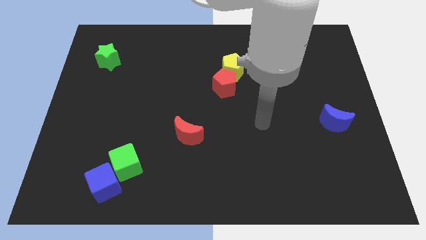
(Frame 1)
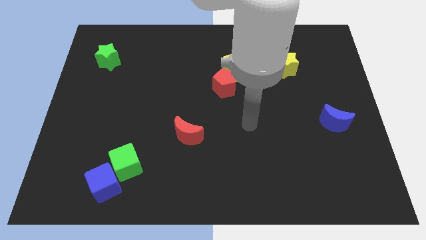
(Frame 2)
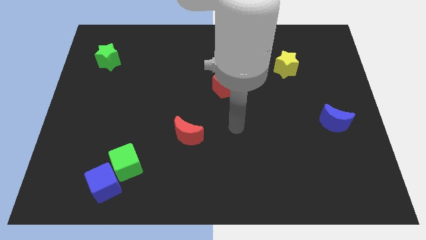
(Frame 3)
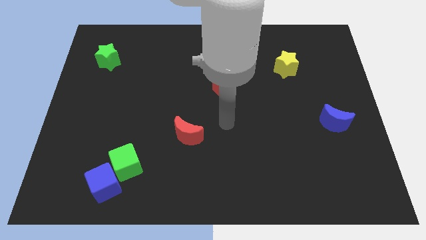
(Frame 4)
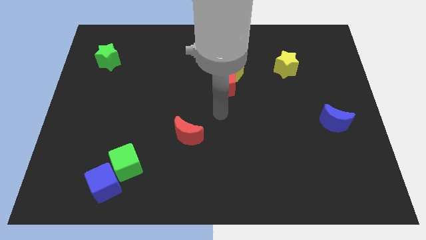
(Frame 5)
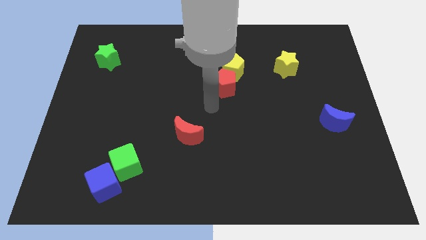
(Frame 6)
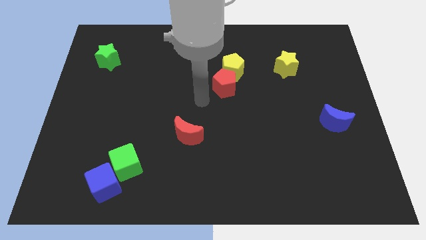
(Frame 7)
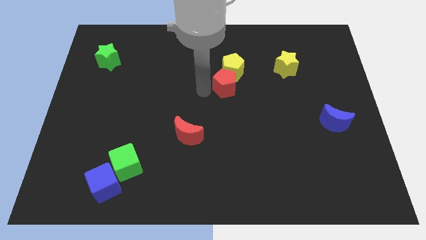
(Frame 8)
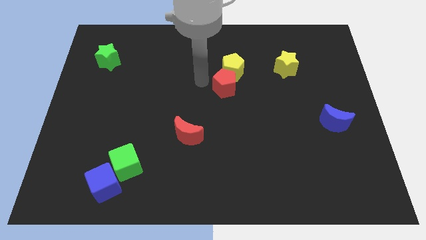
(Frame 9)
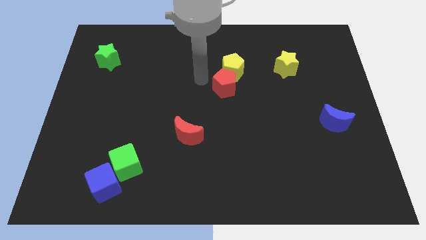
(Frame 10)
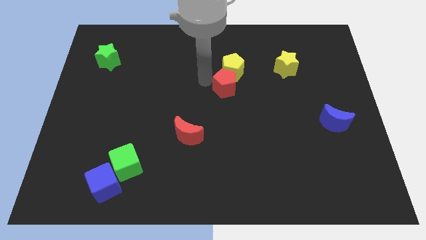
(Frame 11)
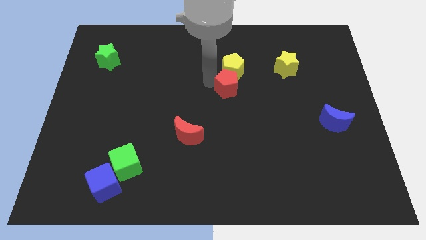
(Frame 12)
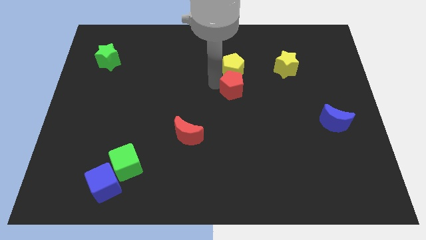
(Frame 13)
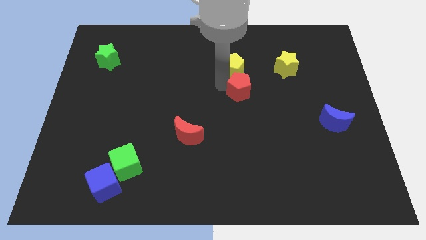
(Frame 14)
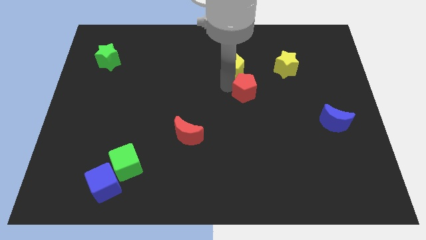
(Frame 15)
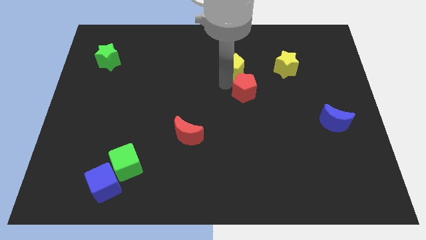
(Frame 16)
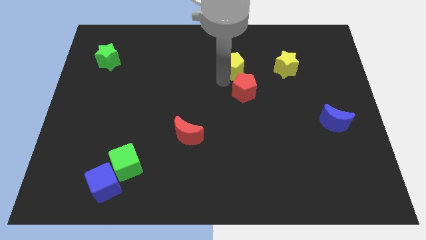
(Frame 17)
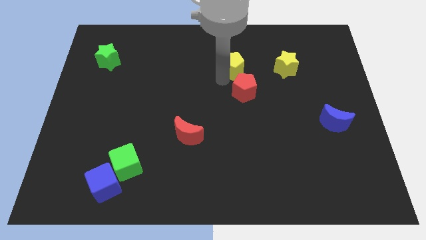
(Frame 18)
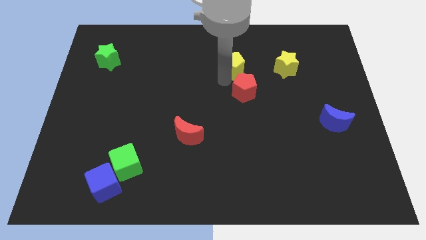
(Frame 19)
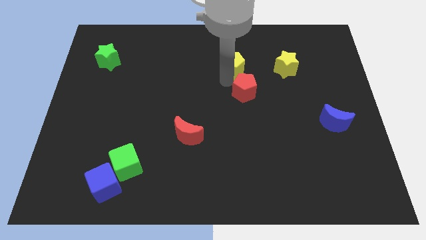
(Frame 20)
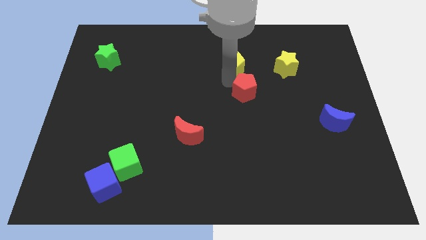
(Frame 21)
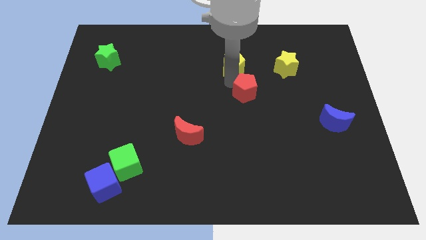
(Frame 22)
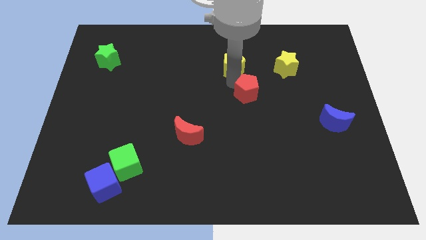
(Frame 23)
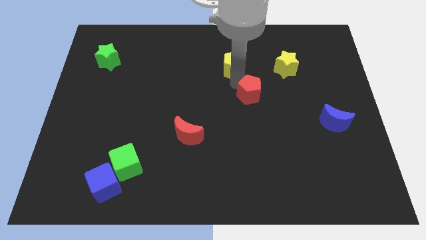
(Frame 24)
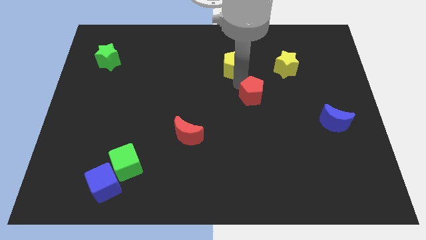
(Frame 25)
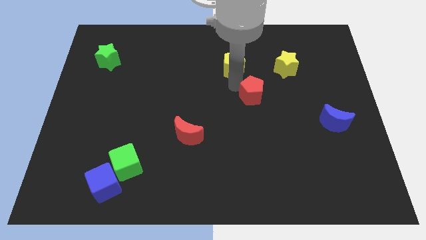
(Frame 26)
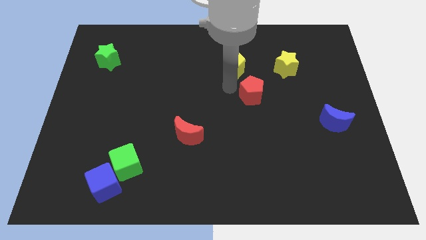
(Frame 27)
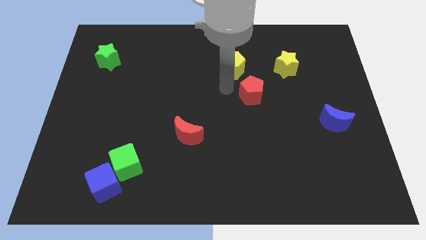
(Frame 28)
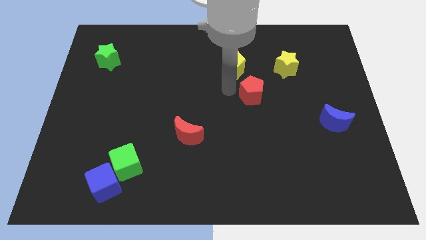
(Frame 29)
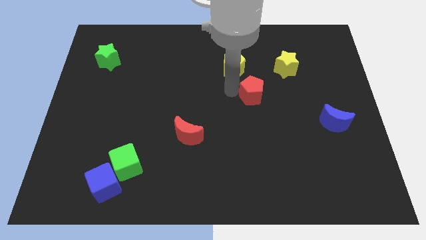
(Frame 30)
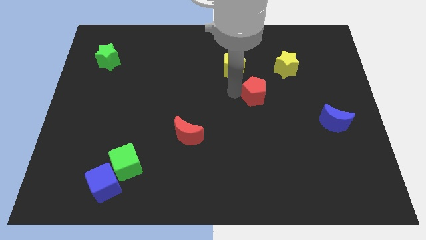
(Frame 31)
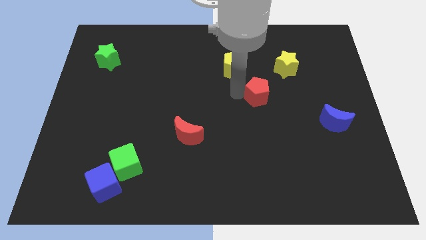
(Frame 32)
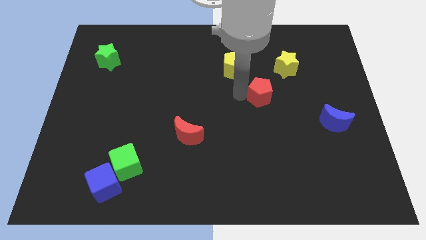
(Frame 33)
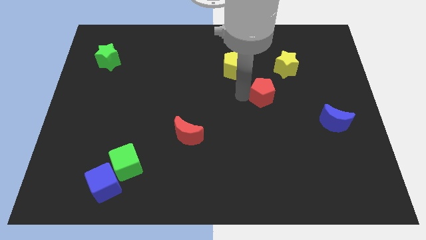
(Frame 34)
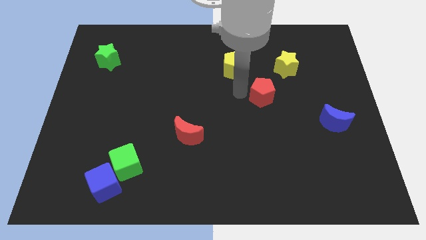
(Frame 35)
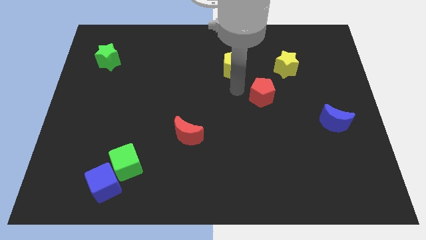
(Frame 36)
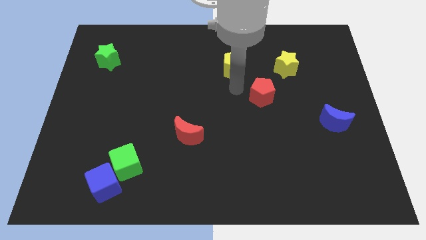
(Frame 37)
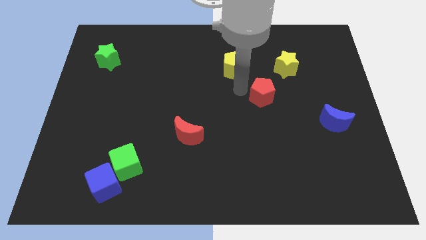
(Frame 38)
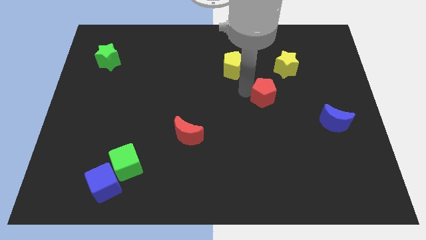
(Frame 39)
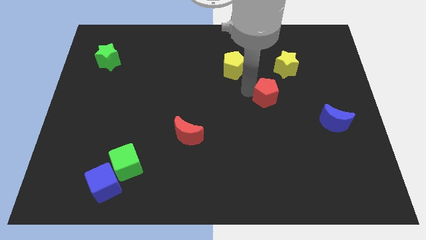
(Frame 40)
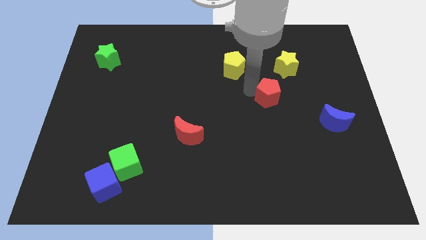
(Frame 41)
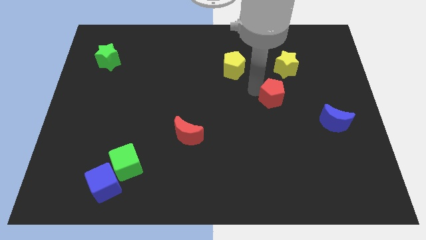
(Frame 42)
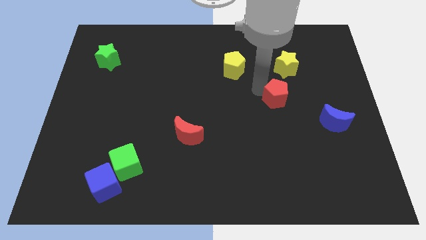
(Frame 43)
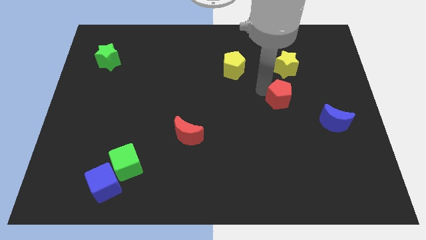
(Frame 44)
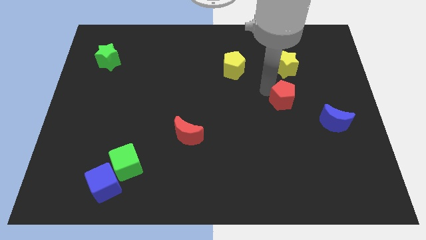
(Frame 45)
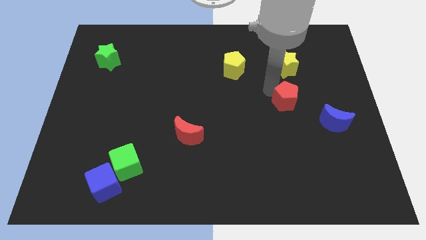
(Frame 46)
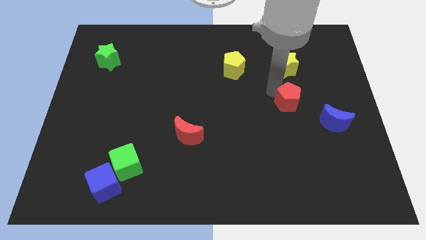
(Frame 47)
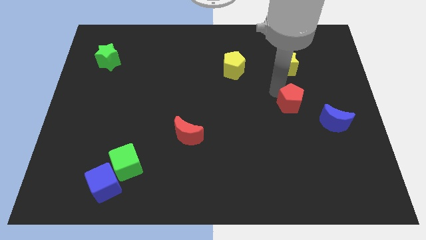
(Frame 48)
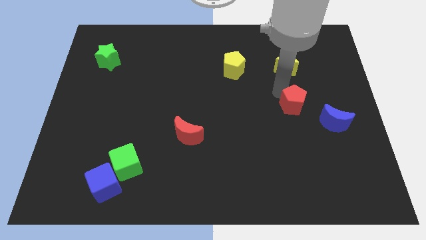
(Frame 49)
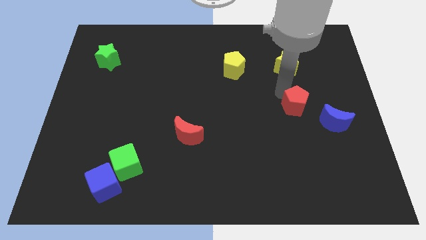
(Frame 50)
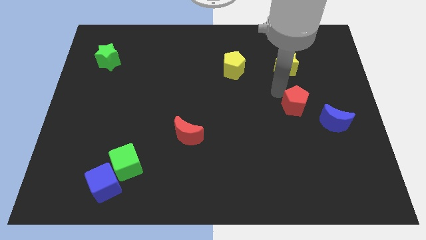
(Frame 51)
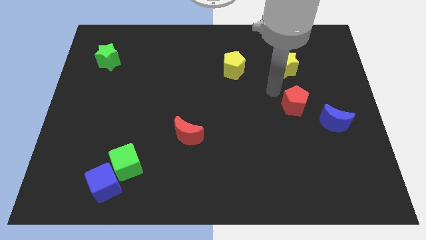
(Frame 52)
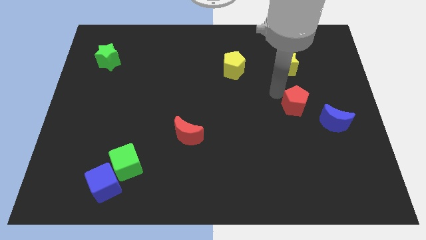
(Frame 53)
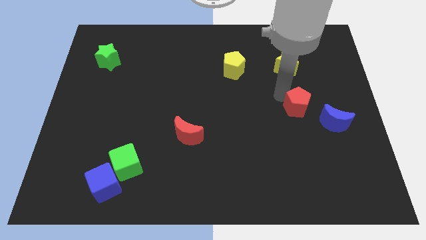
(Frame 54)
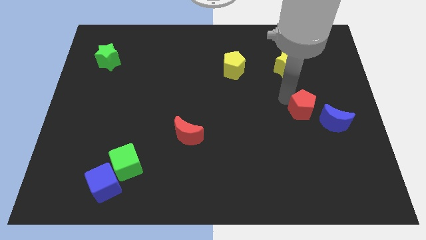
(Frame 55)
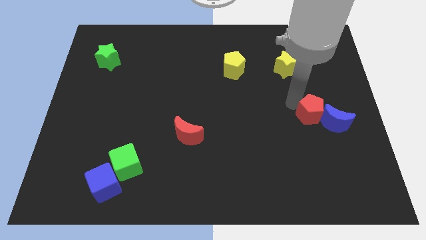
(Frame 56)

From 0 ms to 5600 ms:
put the red pentagon to the blue moon

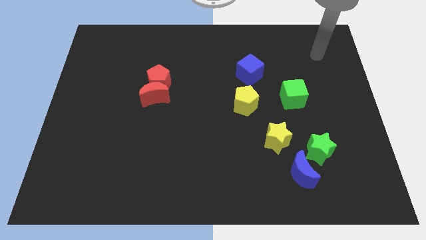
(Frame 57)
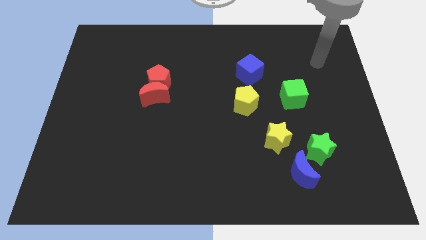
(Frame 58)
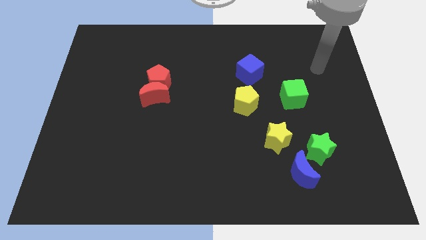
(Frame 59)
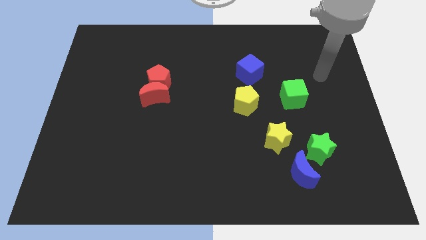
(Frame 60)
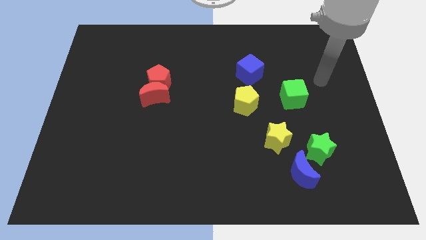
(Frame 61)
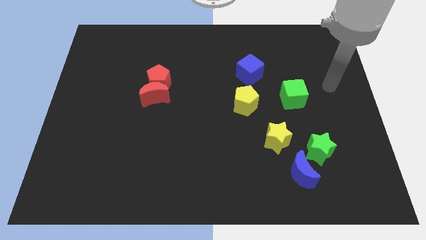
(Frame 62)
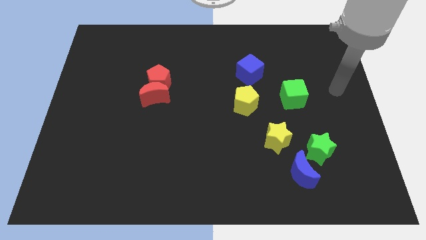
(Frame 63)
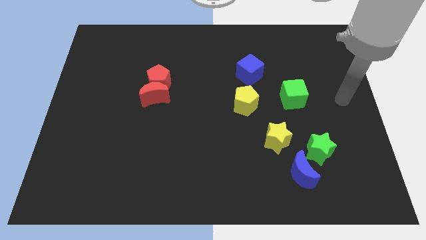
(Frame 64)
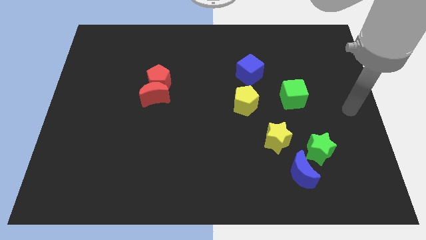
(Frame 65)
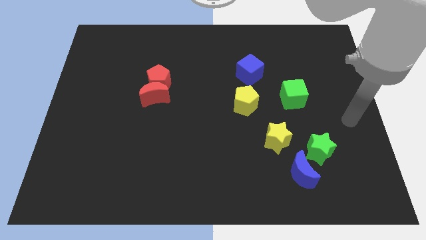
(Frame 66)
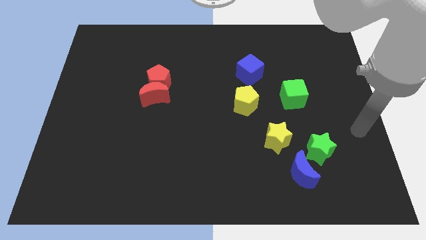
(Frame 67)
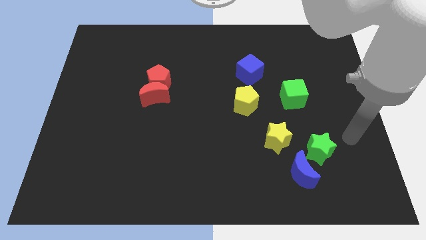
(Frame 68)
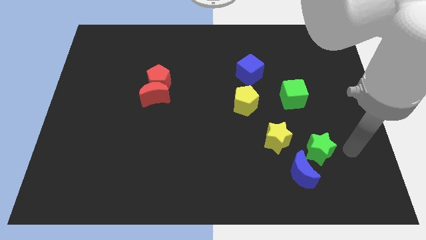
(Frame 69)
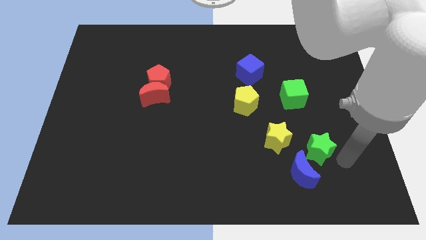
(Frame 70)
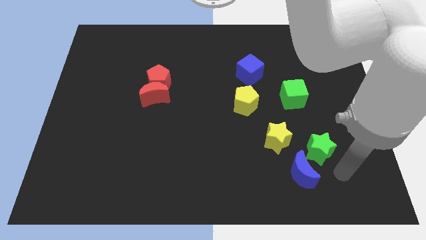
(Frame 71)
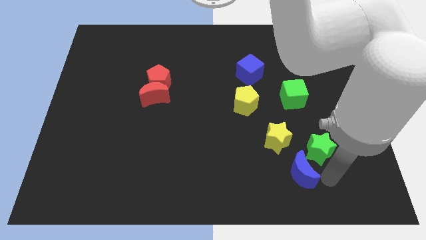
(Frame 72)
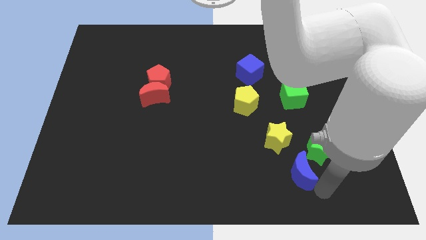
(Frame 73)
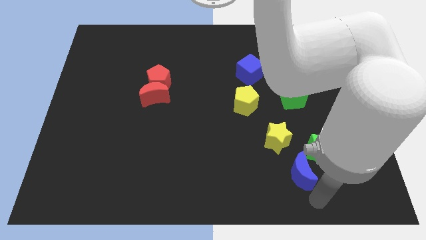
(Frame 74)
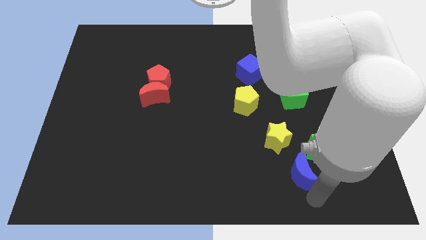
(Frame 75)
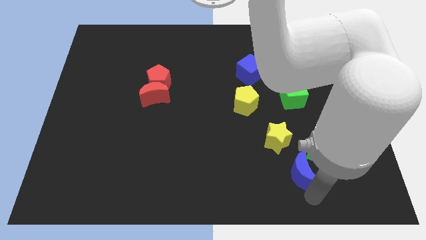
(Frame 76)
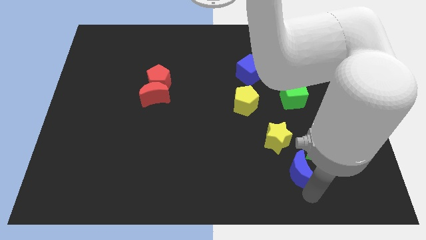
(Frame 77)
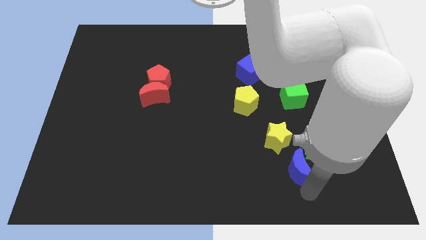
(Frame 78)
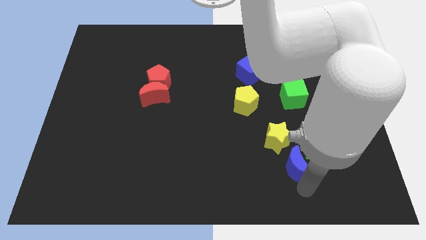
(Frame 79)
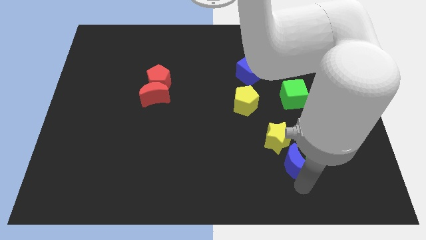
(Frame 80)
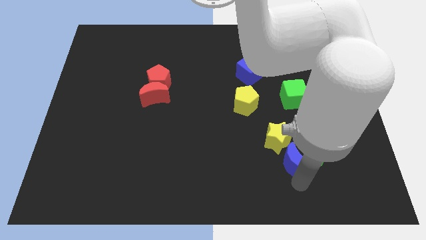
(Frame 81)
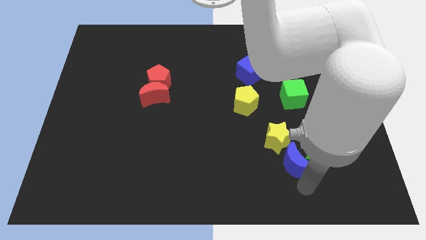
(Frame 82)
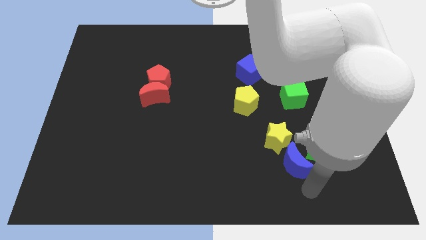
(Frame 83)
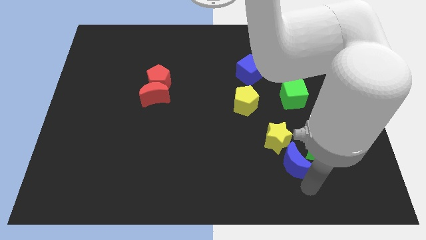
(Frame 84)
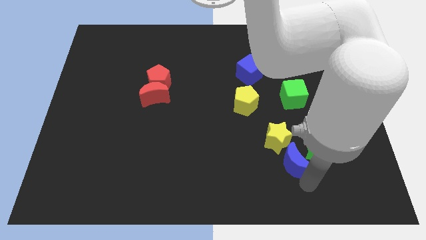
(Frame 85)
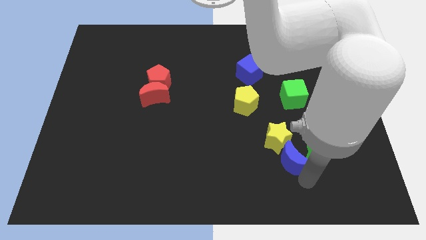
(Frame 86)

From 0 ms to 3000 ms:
move the blue moon to the yellow star
